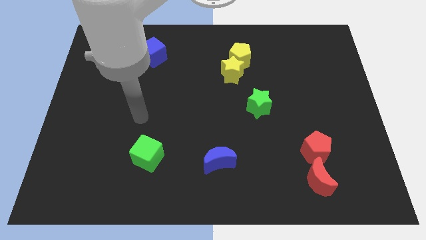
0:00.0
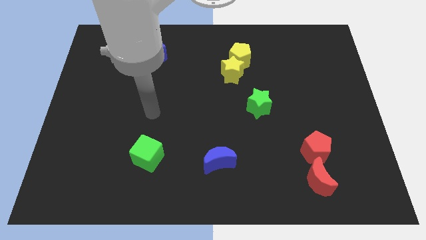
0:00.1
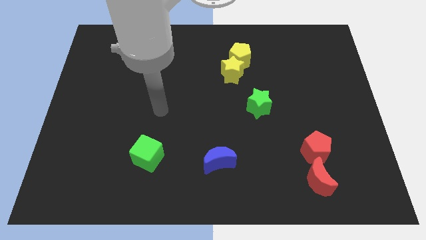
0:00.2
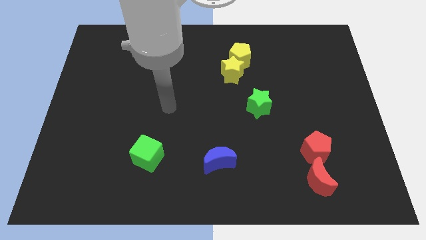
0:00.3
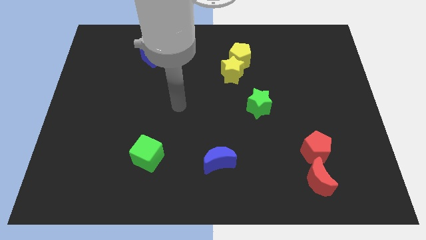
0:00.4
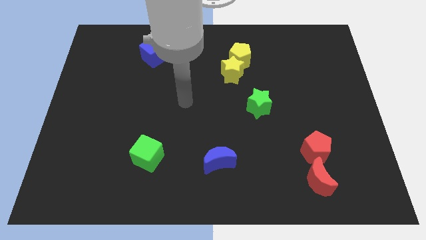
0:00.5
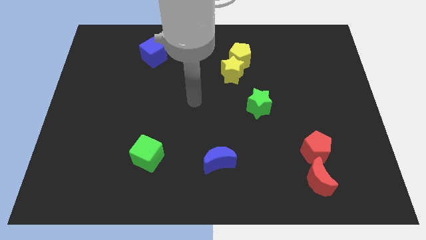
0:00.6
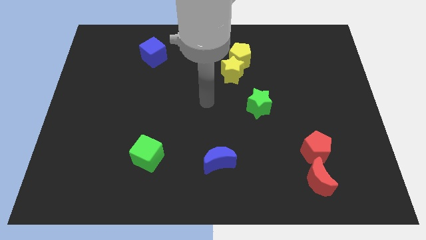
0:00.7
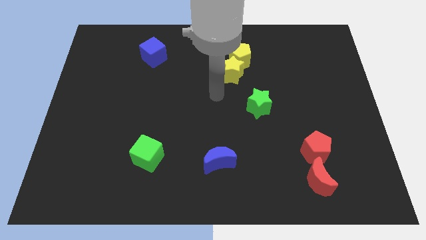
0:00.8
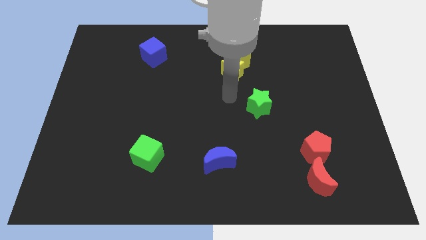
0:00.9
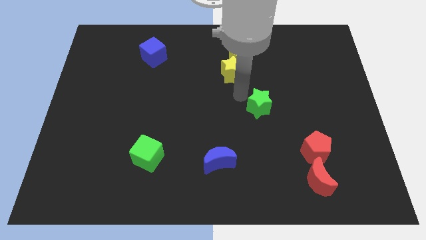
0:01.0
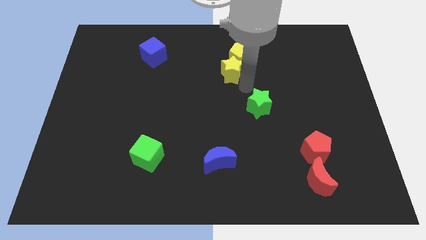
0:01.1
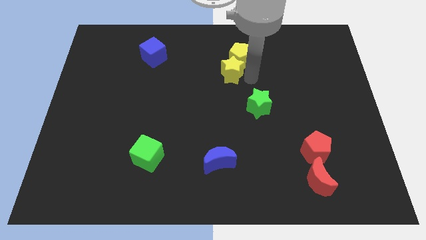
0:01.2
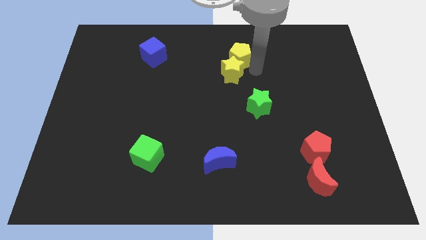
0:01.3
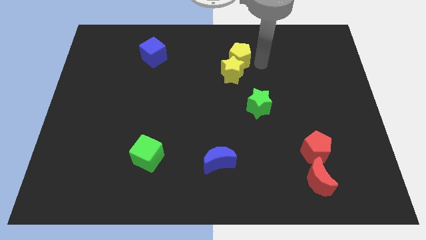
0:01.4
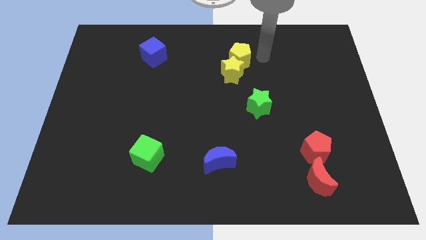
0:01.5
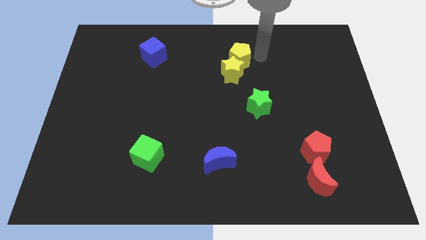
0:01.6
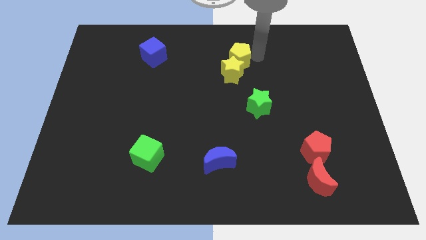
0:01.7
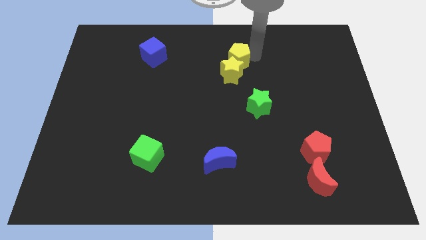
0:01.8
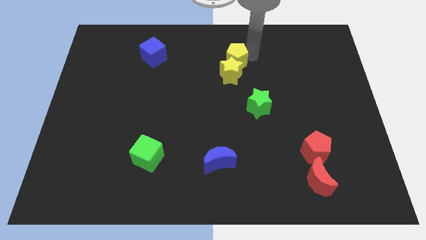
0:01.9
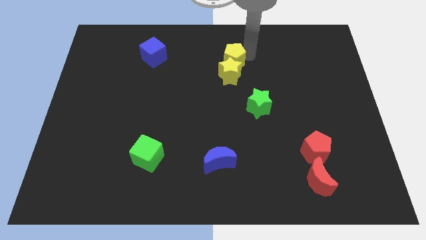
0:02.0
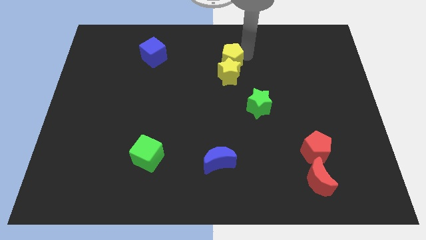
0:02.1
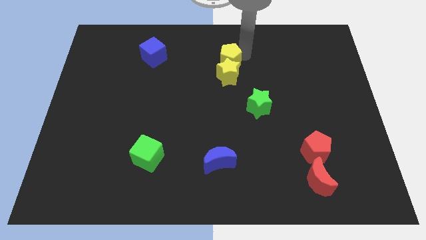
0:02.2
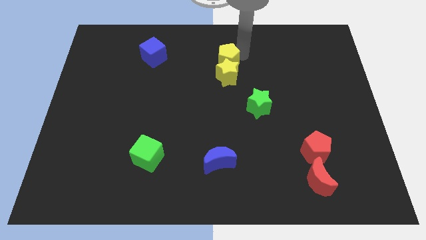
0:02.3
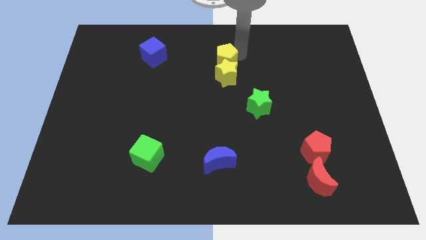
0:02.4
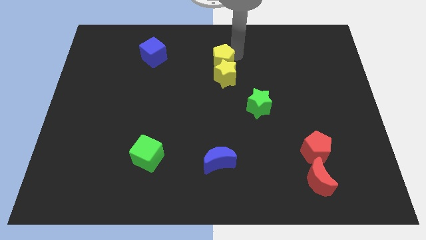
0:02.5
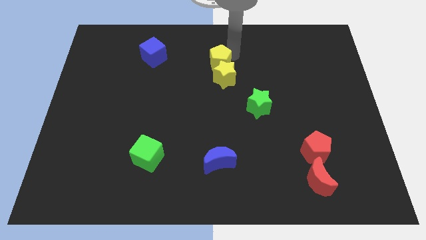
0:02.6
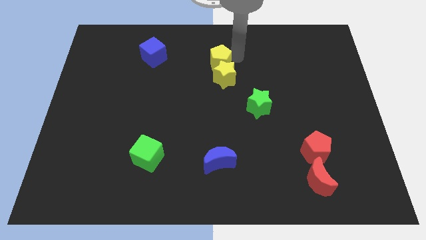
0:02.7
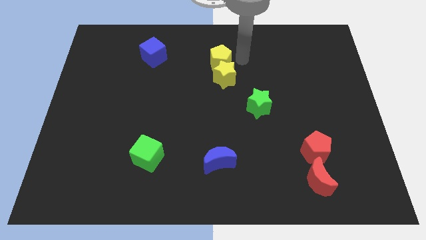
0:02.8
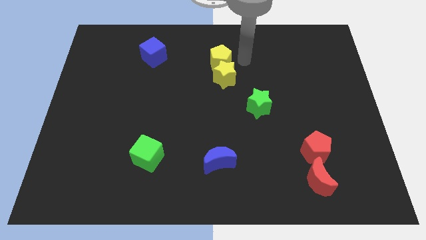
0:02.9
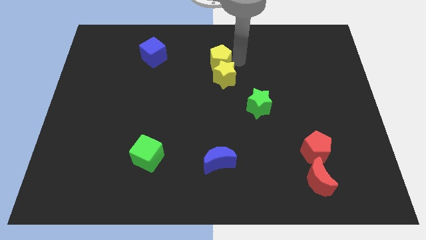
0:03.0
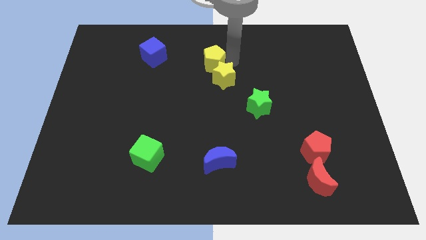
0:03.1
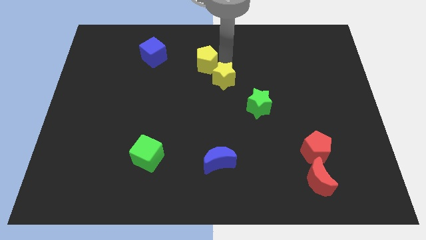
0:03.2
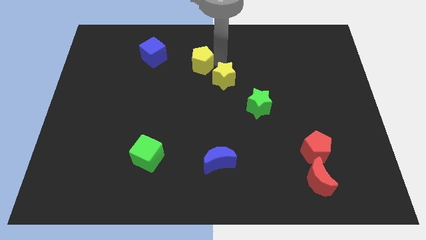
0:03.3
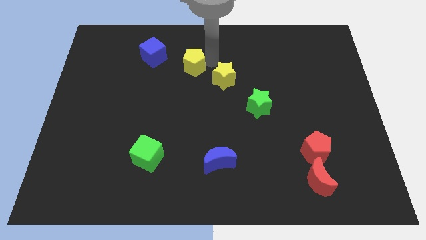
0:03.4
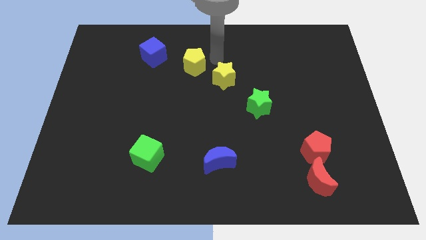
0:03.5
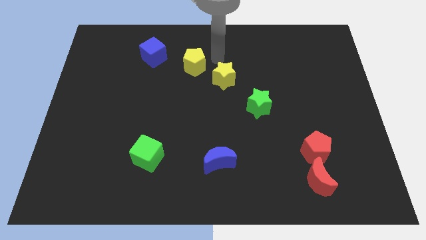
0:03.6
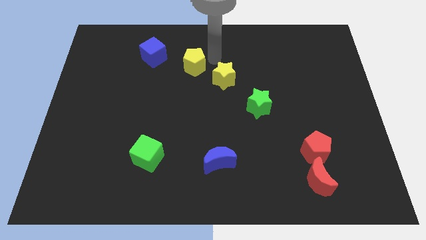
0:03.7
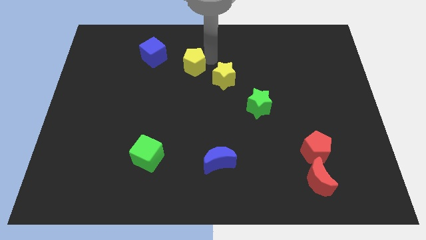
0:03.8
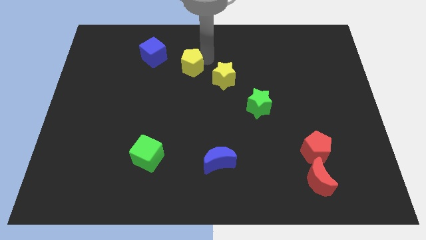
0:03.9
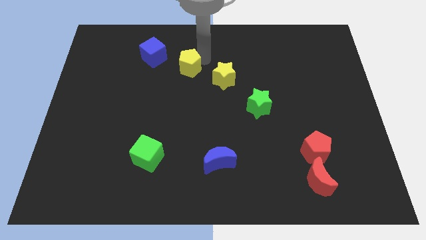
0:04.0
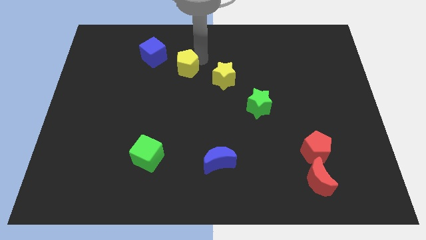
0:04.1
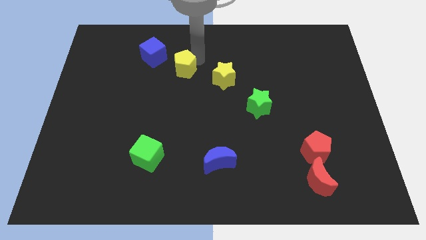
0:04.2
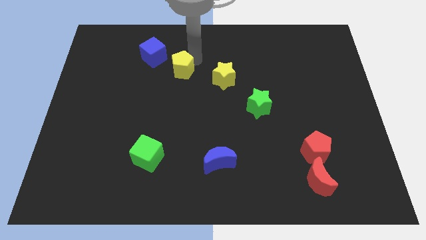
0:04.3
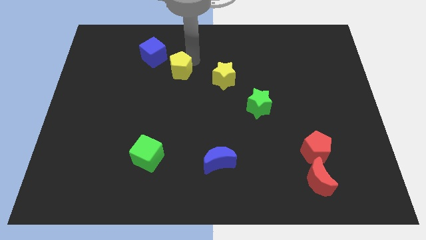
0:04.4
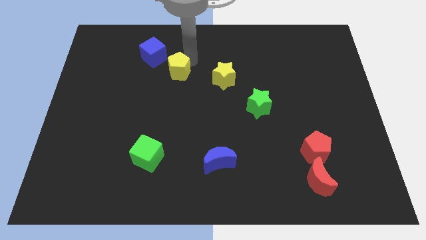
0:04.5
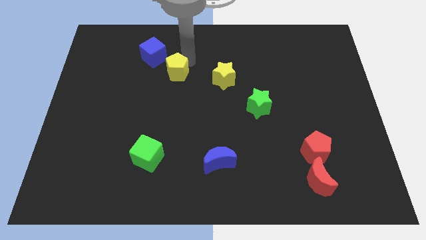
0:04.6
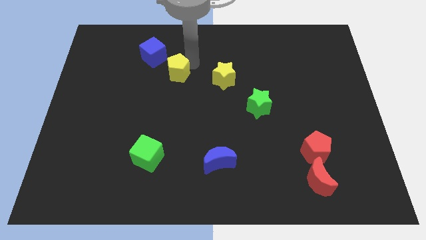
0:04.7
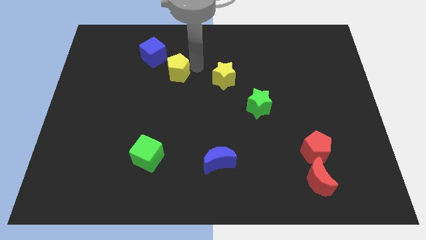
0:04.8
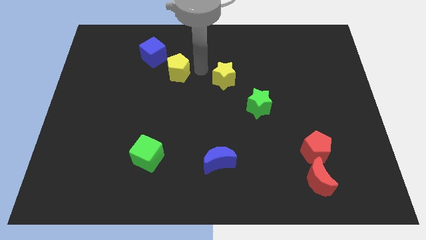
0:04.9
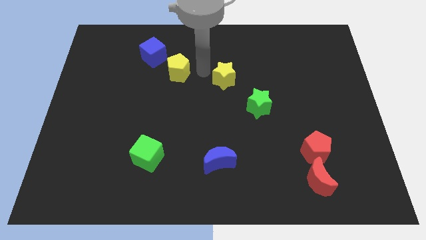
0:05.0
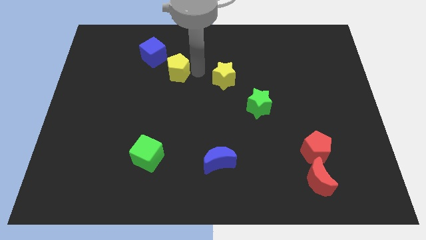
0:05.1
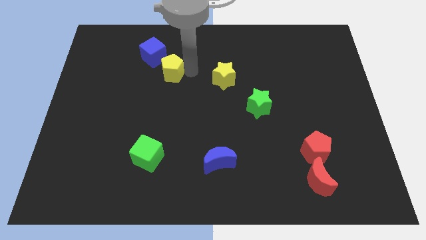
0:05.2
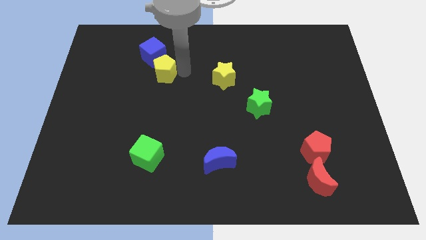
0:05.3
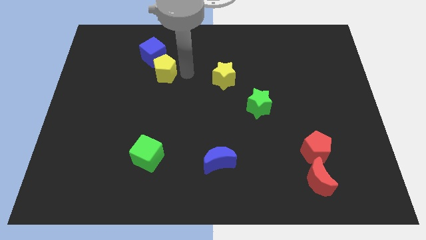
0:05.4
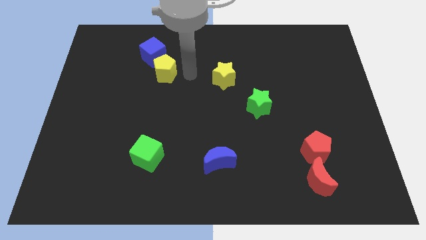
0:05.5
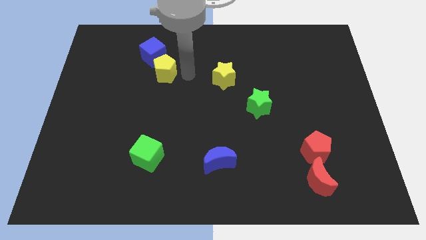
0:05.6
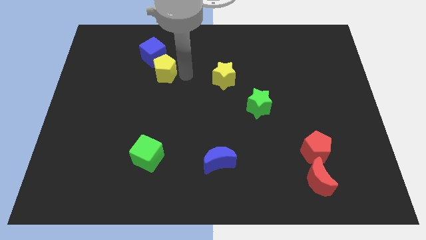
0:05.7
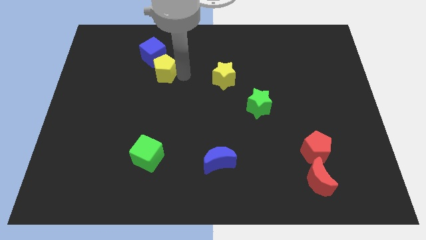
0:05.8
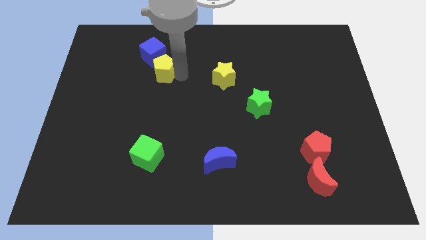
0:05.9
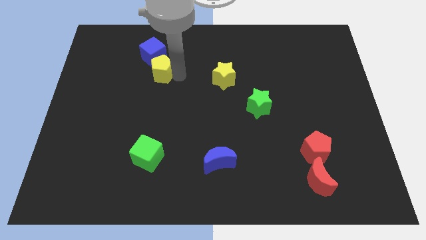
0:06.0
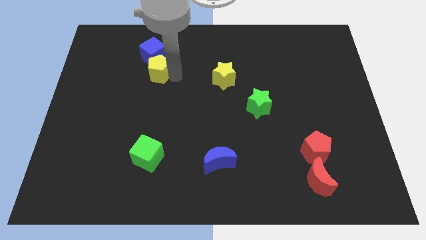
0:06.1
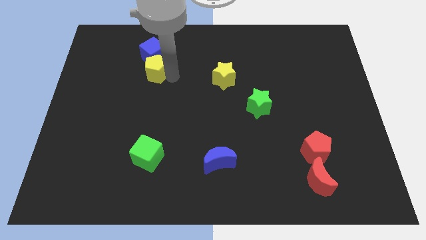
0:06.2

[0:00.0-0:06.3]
put the yellow pentagon to the bottom left of the blue cube

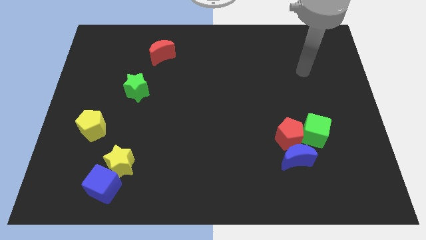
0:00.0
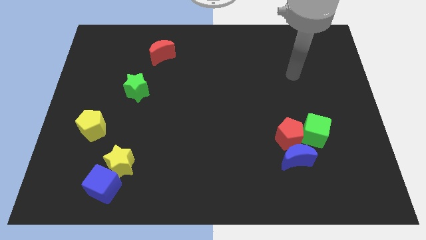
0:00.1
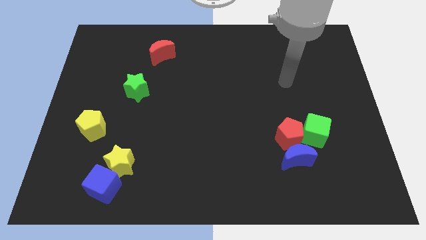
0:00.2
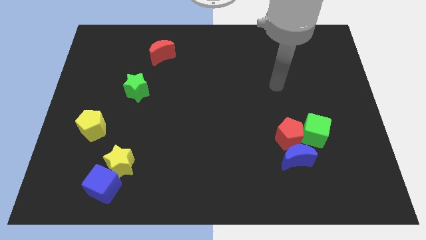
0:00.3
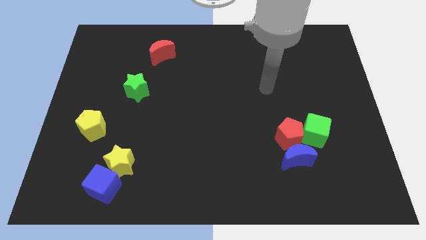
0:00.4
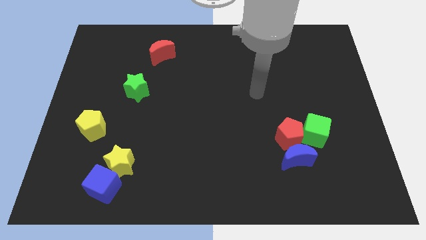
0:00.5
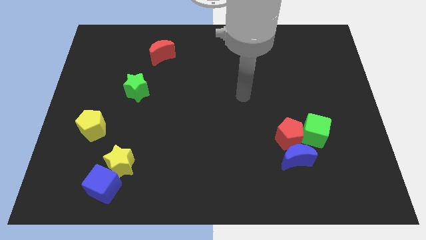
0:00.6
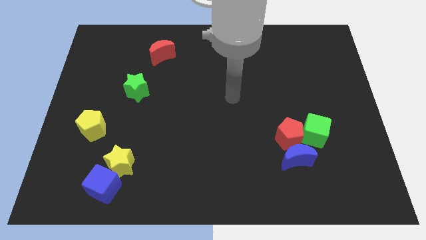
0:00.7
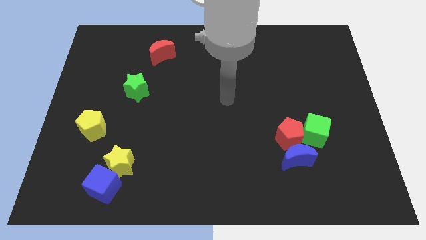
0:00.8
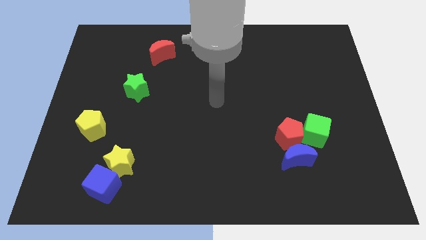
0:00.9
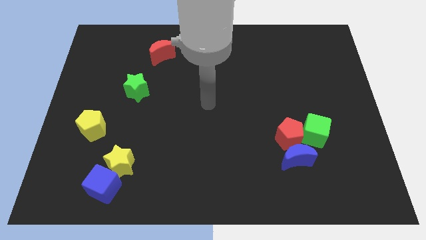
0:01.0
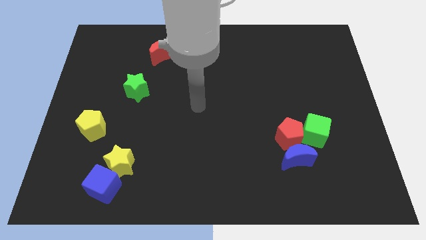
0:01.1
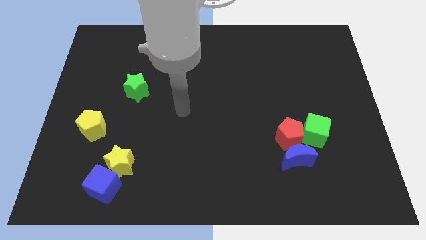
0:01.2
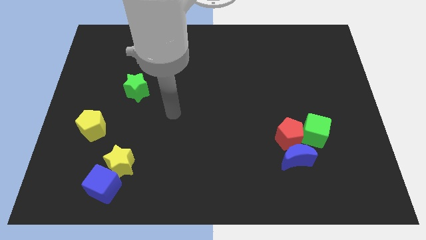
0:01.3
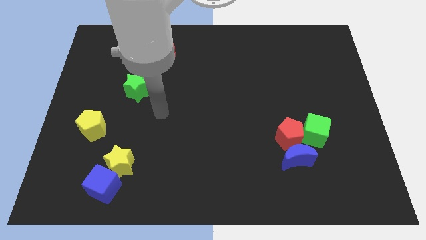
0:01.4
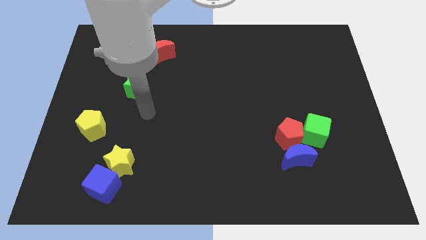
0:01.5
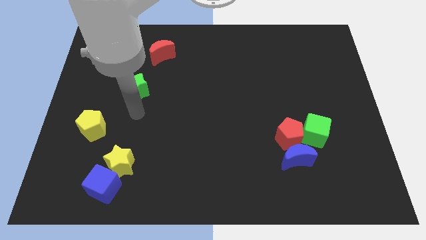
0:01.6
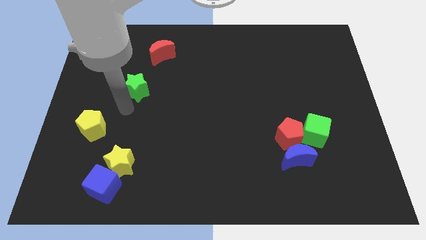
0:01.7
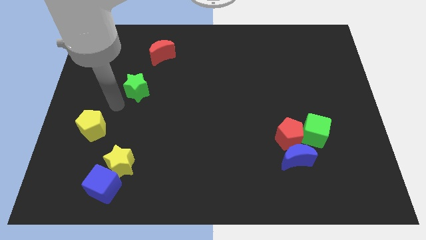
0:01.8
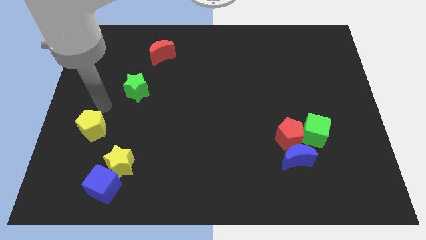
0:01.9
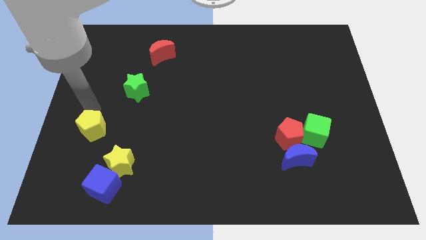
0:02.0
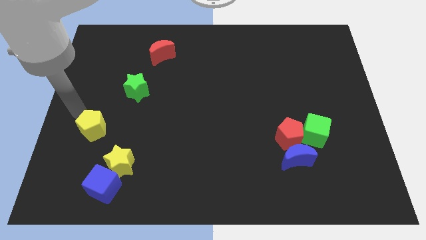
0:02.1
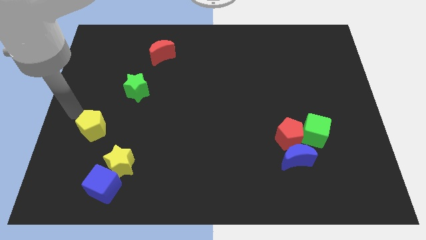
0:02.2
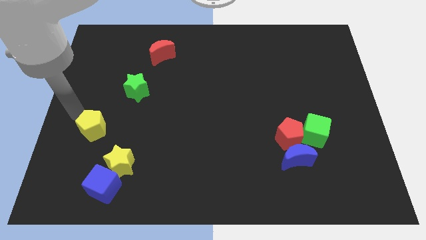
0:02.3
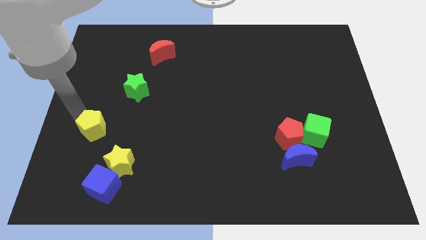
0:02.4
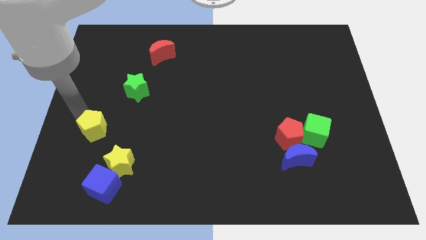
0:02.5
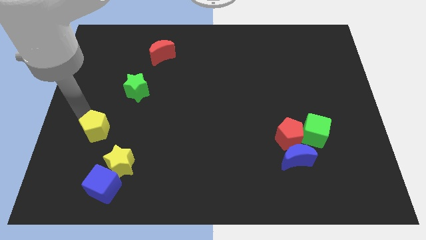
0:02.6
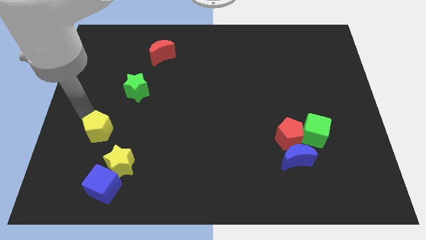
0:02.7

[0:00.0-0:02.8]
slide the yellow pentagon to the top of the blue cube
